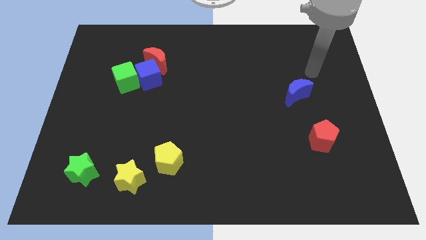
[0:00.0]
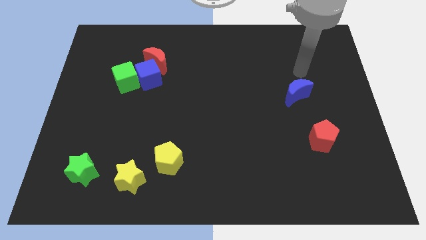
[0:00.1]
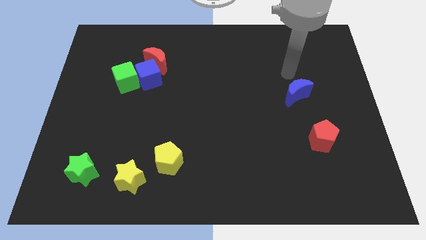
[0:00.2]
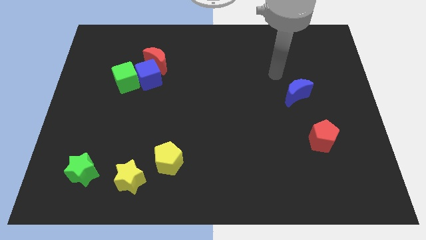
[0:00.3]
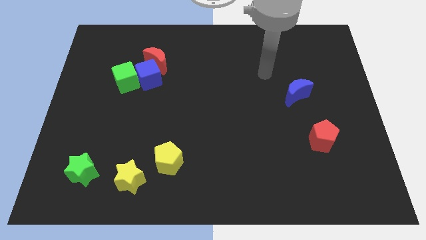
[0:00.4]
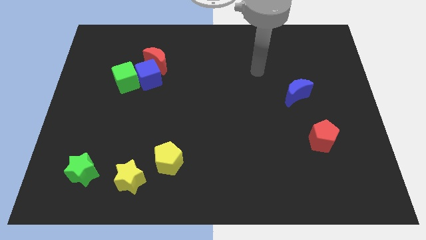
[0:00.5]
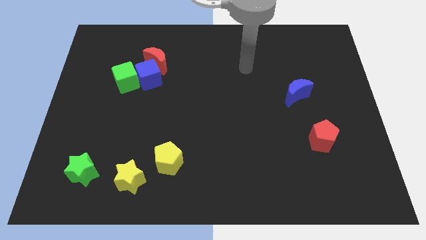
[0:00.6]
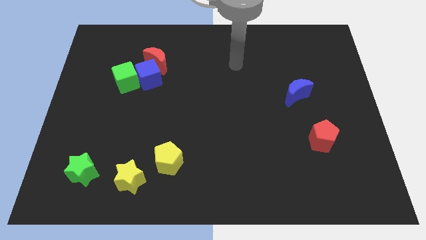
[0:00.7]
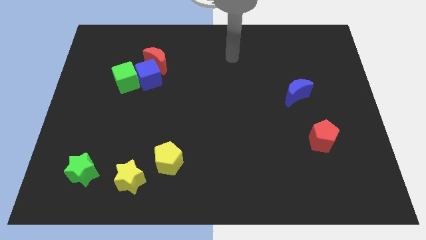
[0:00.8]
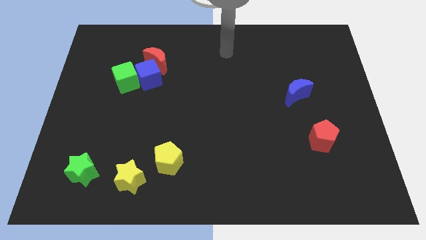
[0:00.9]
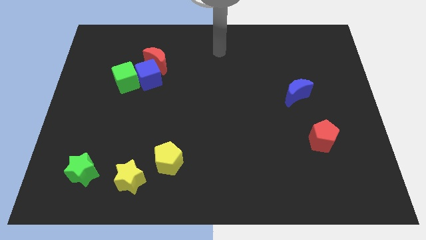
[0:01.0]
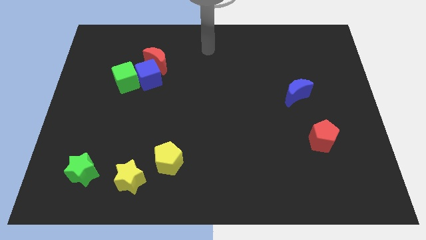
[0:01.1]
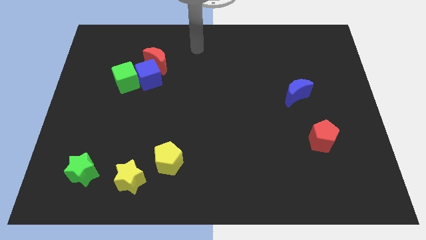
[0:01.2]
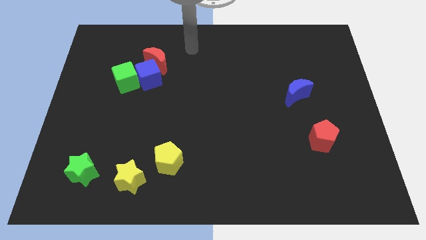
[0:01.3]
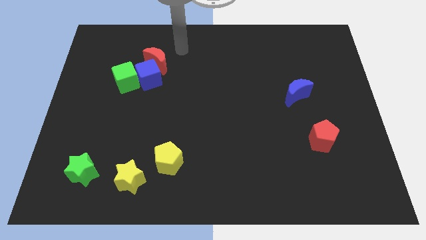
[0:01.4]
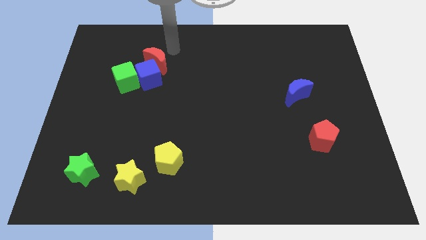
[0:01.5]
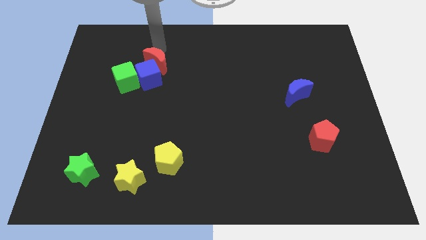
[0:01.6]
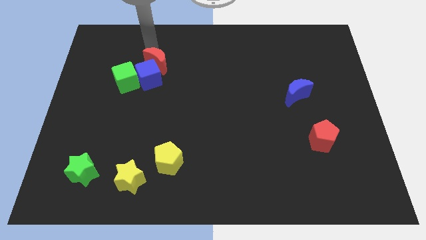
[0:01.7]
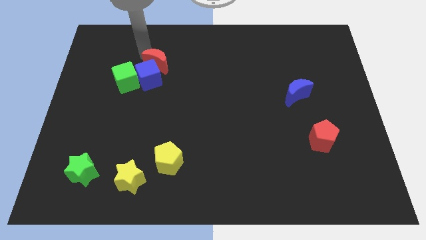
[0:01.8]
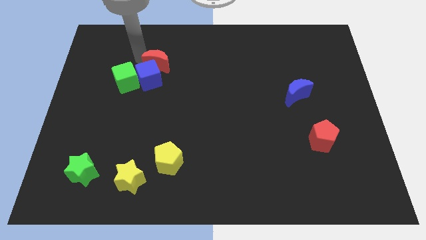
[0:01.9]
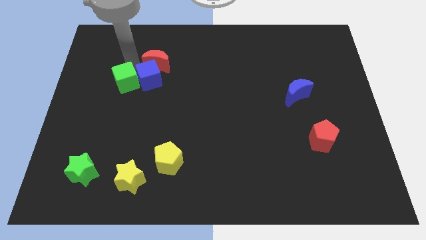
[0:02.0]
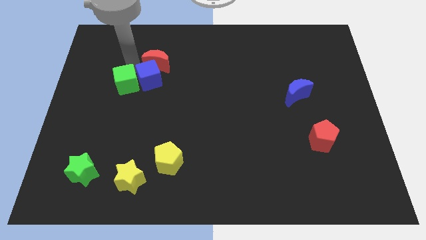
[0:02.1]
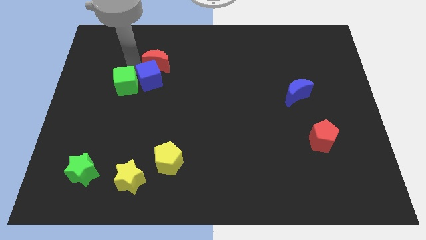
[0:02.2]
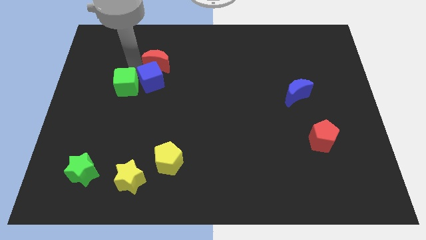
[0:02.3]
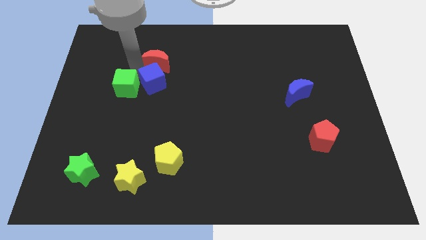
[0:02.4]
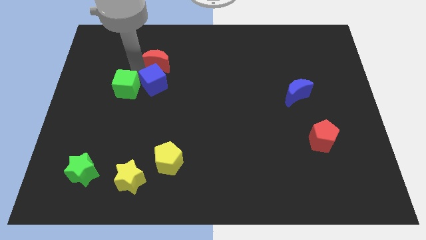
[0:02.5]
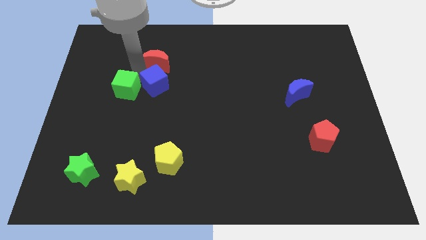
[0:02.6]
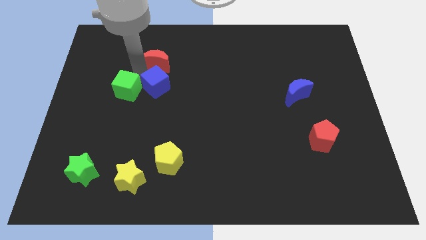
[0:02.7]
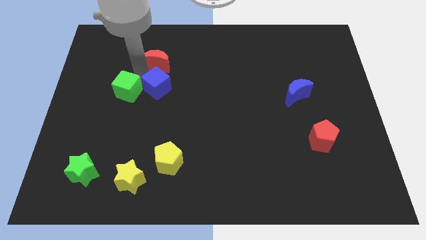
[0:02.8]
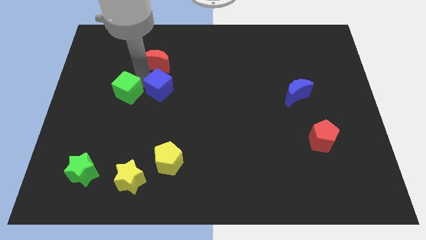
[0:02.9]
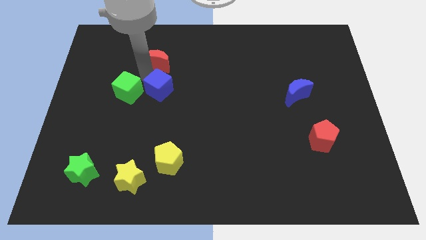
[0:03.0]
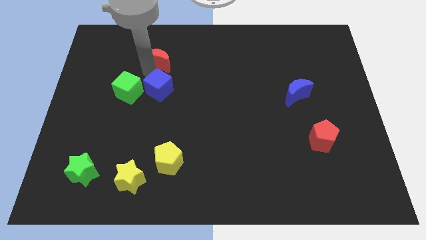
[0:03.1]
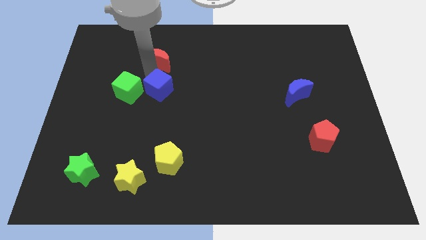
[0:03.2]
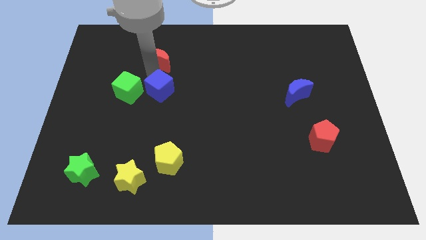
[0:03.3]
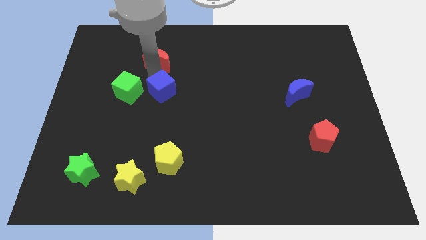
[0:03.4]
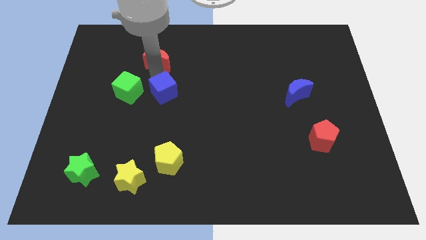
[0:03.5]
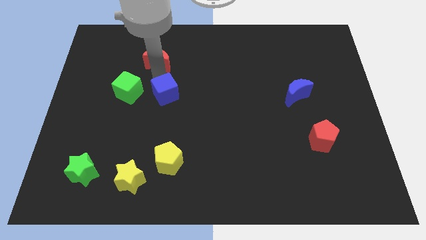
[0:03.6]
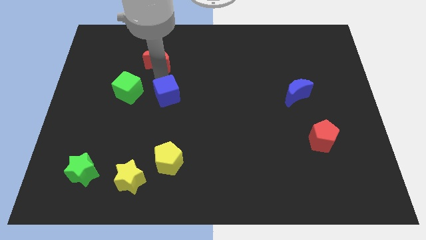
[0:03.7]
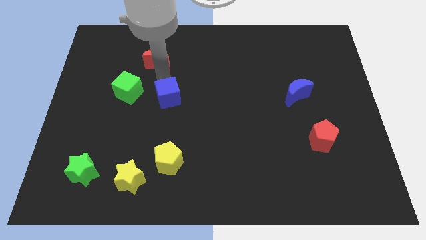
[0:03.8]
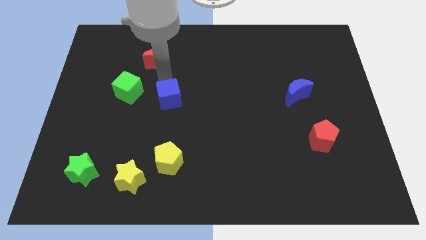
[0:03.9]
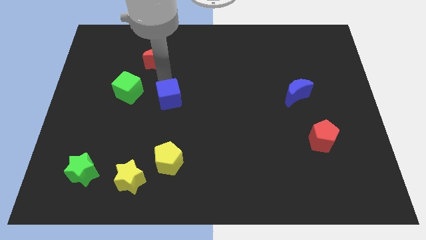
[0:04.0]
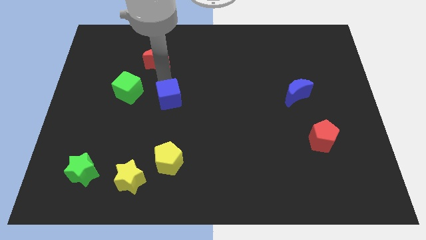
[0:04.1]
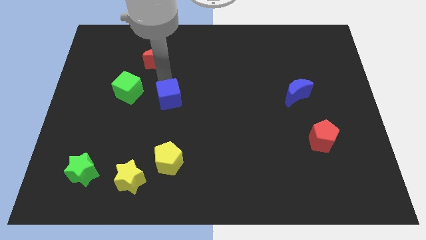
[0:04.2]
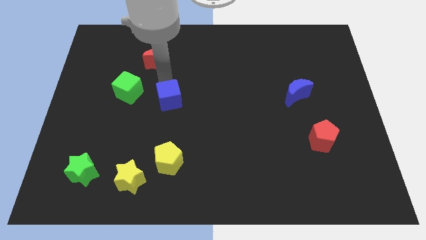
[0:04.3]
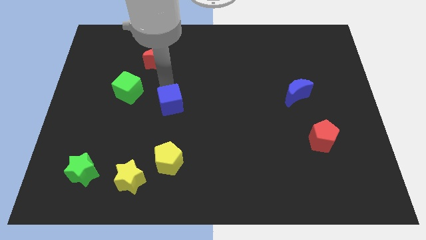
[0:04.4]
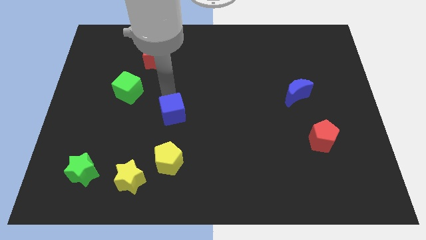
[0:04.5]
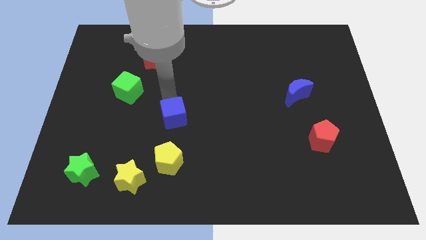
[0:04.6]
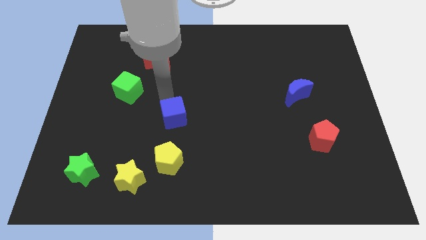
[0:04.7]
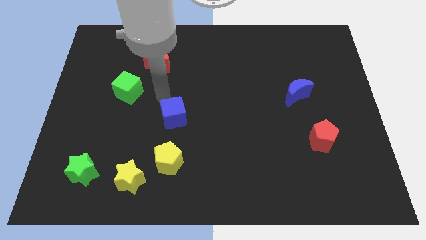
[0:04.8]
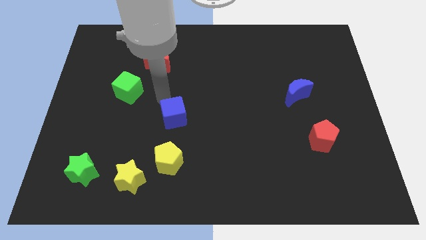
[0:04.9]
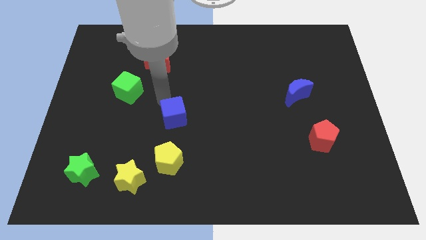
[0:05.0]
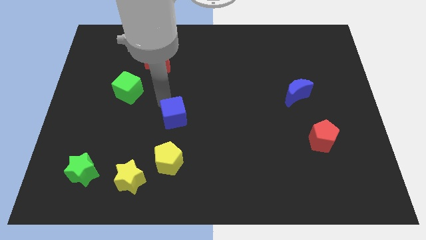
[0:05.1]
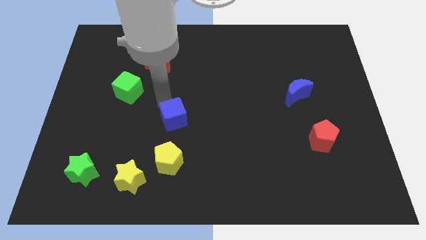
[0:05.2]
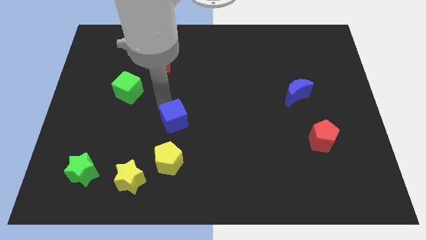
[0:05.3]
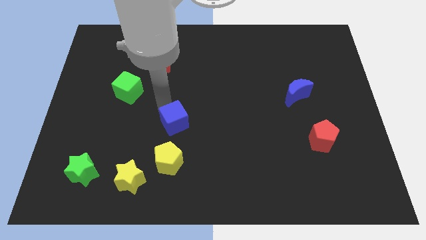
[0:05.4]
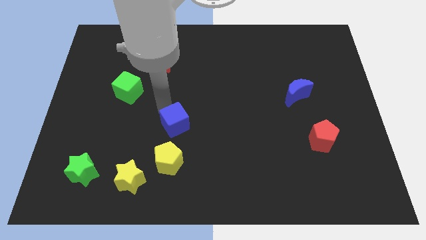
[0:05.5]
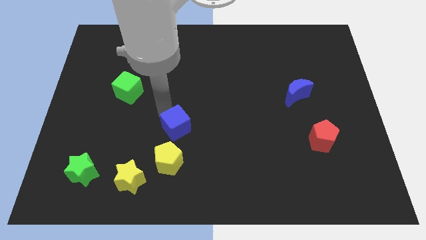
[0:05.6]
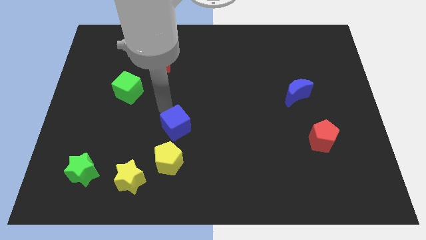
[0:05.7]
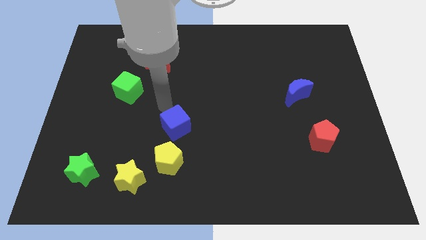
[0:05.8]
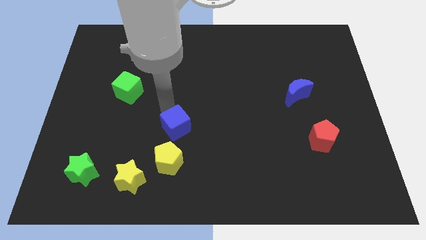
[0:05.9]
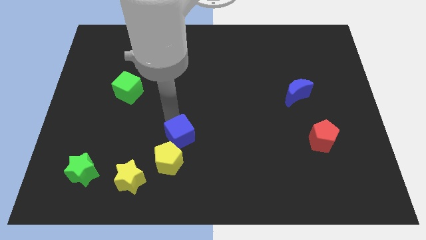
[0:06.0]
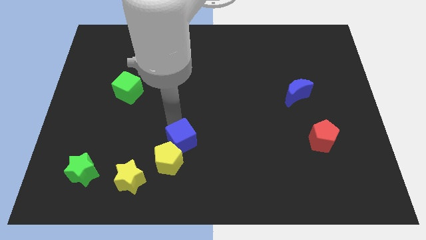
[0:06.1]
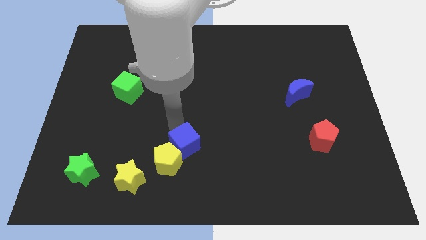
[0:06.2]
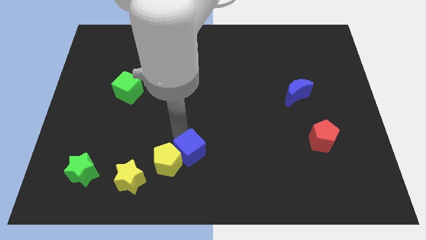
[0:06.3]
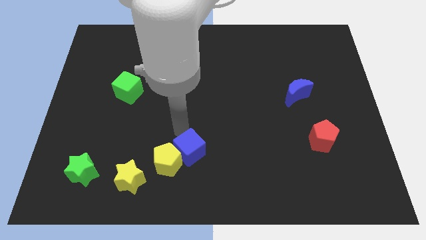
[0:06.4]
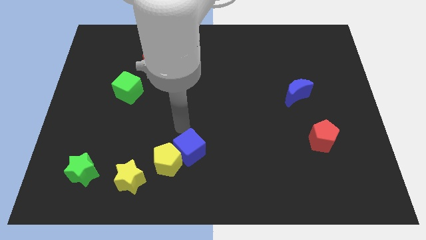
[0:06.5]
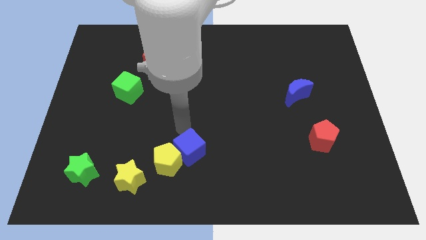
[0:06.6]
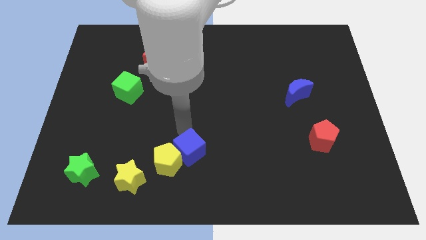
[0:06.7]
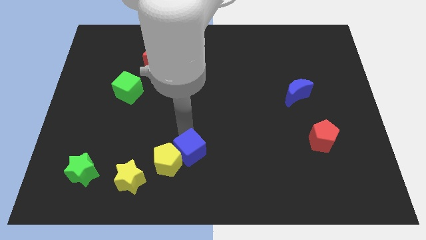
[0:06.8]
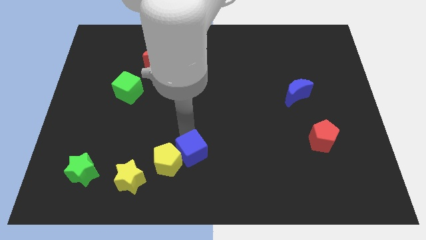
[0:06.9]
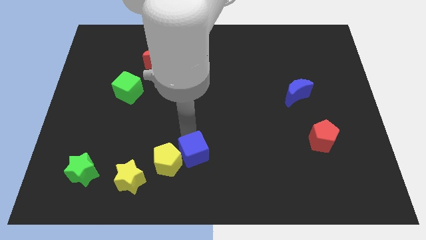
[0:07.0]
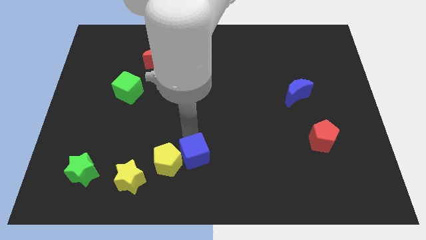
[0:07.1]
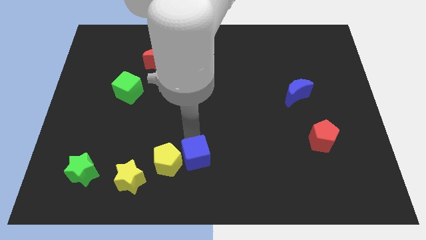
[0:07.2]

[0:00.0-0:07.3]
put the blue cube to the bottom side
